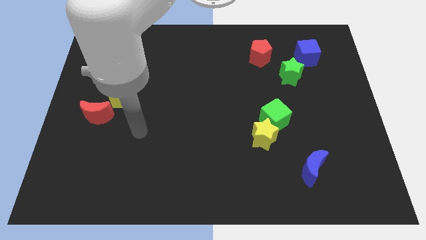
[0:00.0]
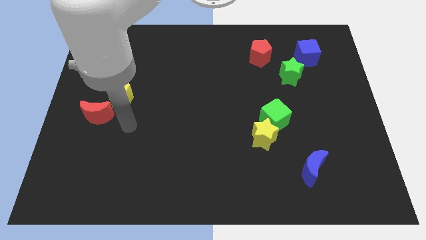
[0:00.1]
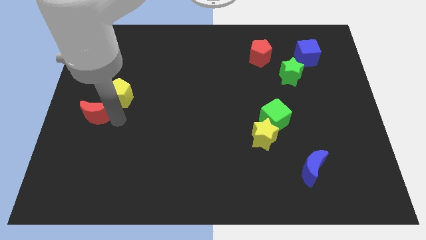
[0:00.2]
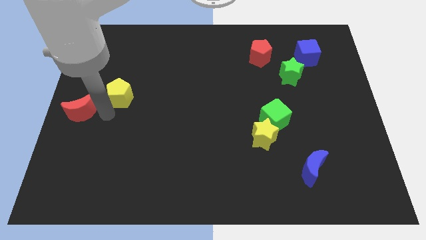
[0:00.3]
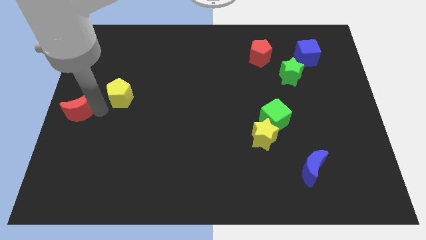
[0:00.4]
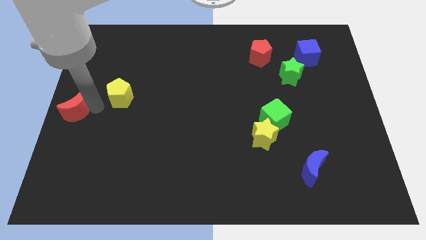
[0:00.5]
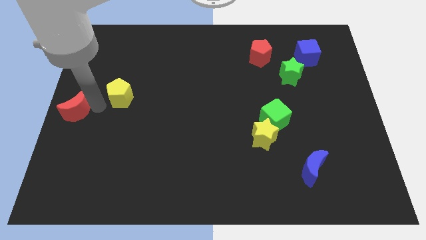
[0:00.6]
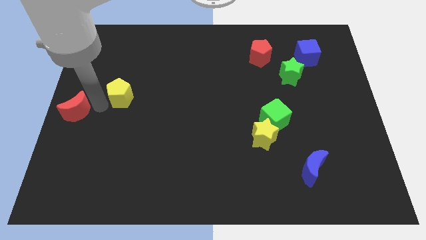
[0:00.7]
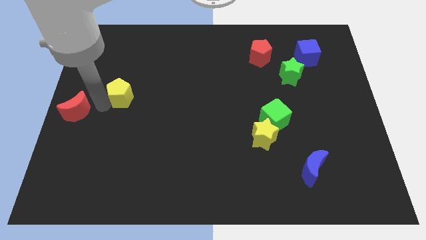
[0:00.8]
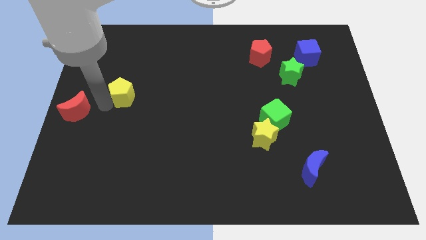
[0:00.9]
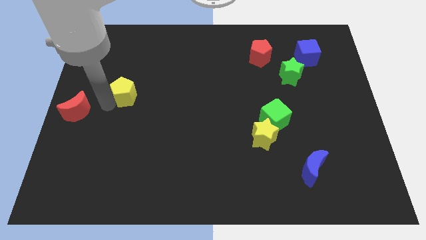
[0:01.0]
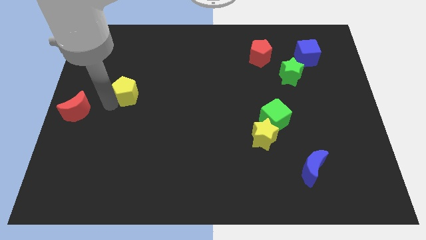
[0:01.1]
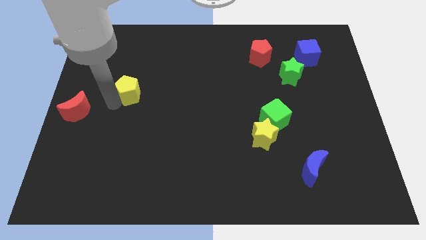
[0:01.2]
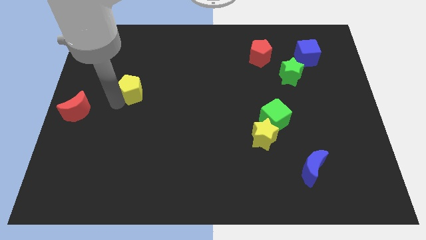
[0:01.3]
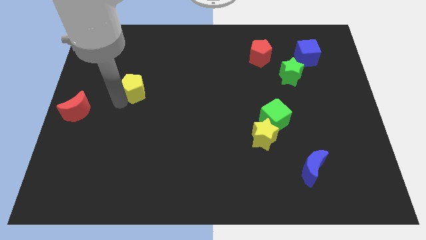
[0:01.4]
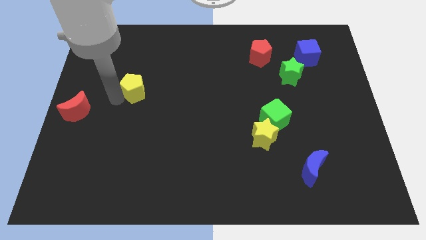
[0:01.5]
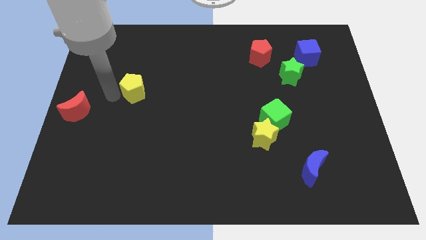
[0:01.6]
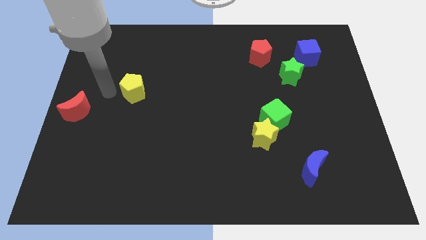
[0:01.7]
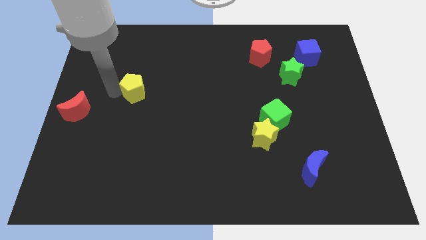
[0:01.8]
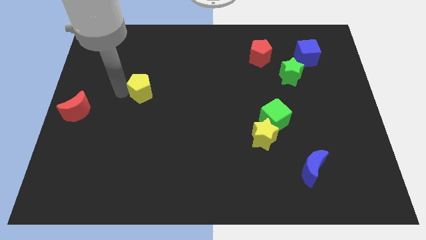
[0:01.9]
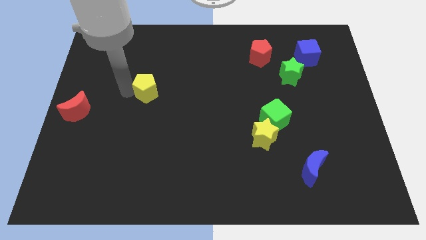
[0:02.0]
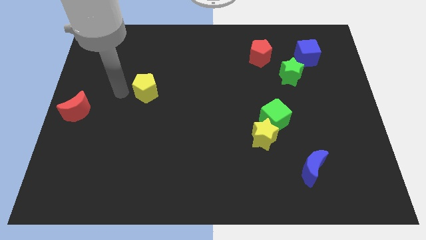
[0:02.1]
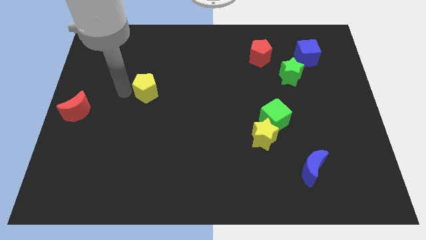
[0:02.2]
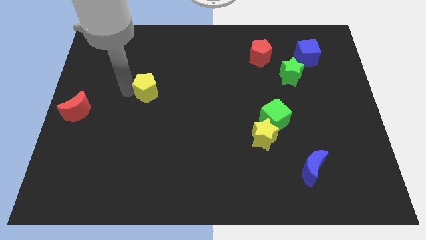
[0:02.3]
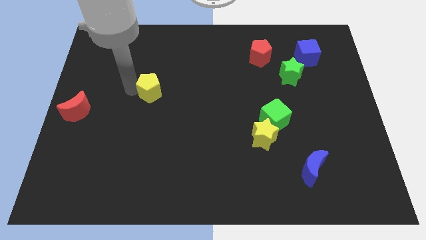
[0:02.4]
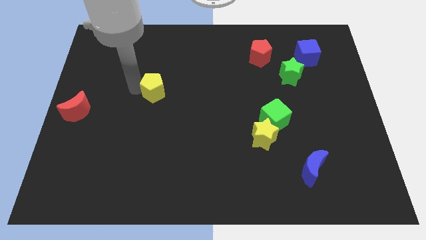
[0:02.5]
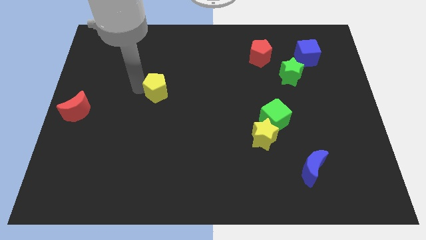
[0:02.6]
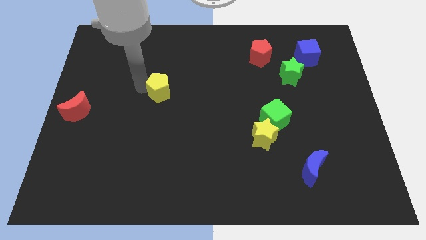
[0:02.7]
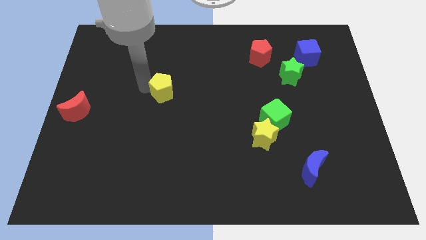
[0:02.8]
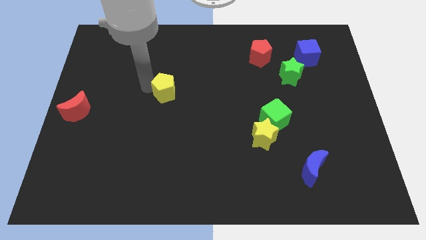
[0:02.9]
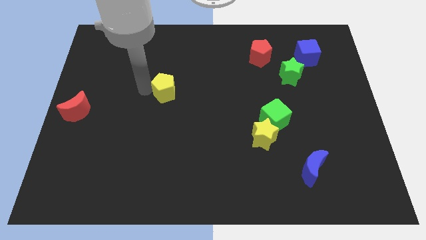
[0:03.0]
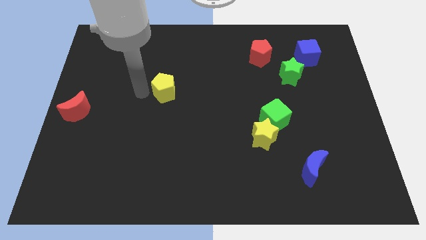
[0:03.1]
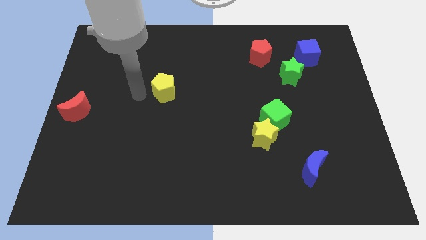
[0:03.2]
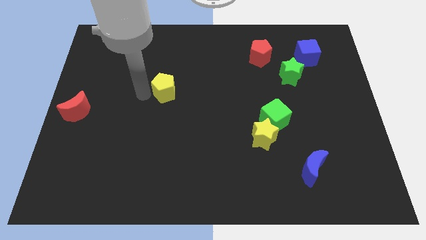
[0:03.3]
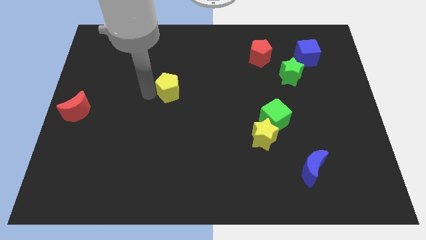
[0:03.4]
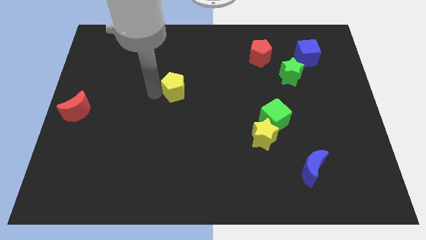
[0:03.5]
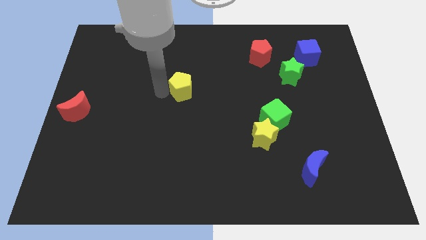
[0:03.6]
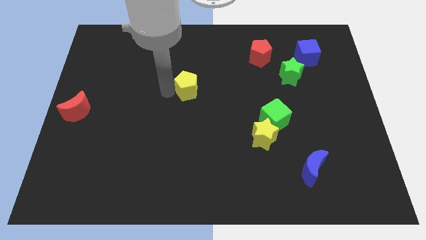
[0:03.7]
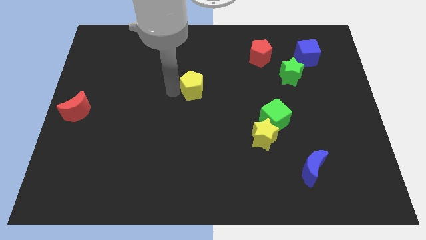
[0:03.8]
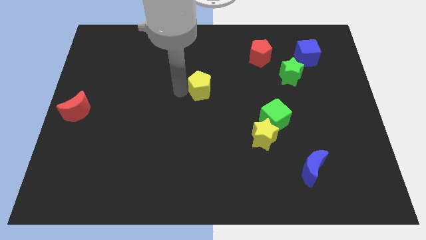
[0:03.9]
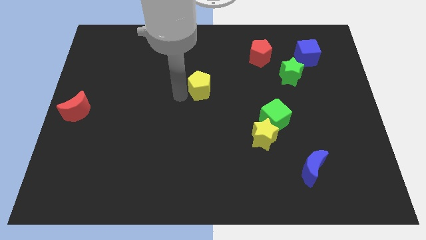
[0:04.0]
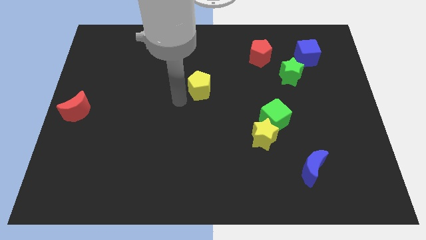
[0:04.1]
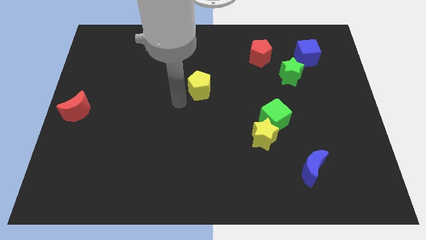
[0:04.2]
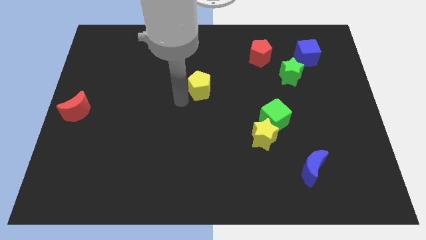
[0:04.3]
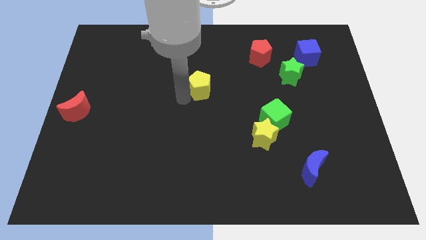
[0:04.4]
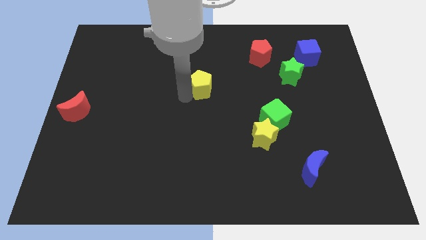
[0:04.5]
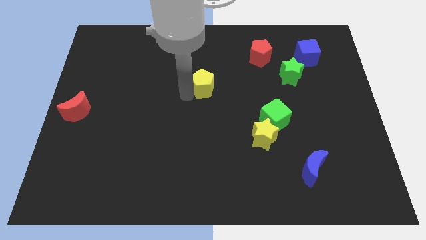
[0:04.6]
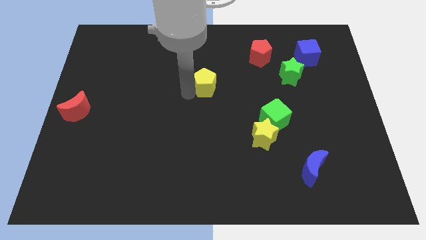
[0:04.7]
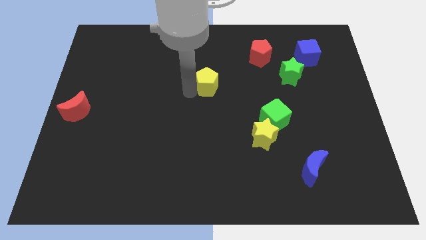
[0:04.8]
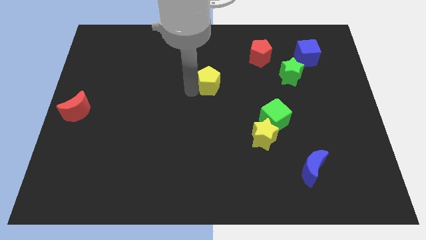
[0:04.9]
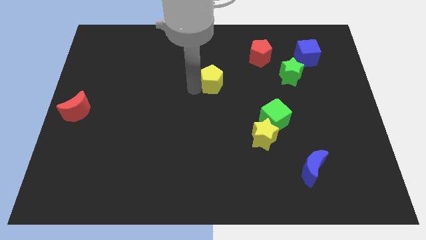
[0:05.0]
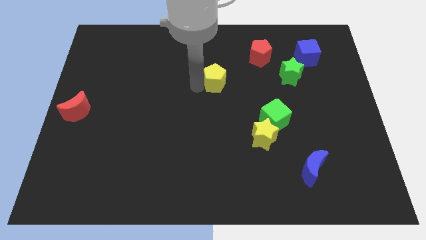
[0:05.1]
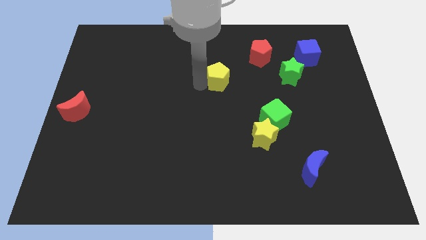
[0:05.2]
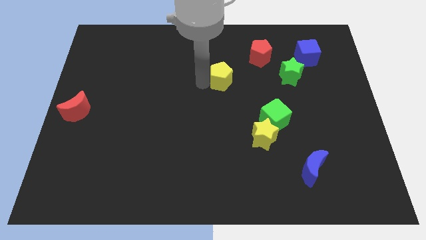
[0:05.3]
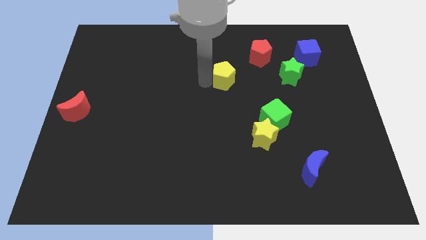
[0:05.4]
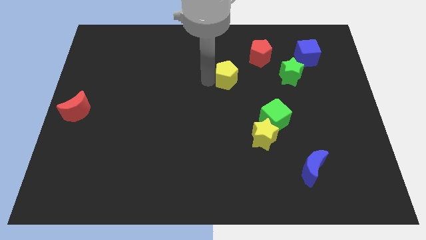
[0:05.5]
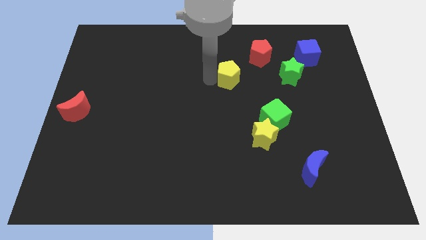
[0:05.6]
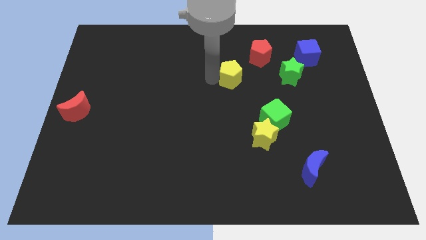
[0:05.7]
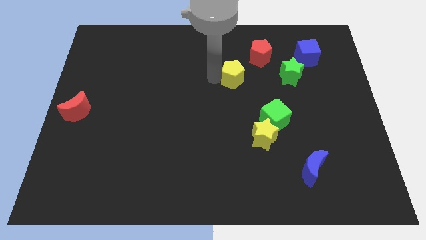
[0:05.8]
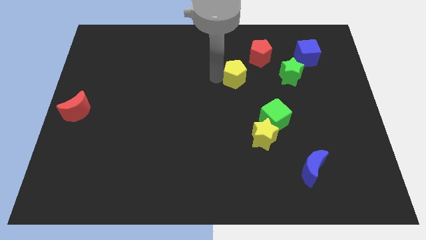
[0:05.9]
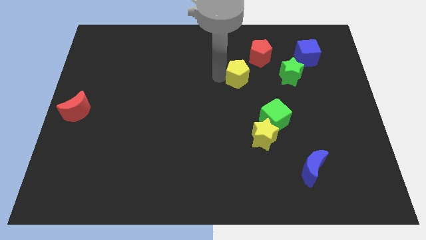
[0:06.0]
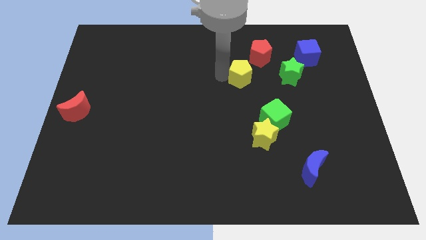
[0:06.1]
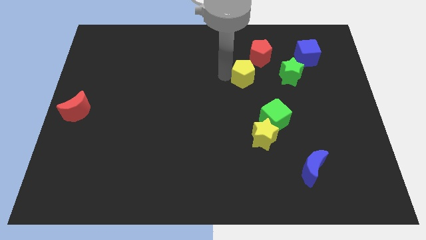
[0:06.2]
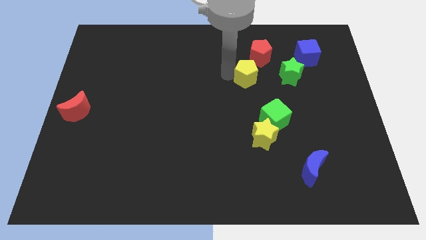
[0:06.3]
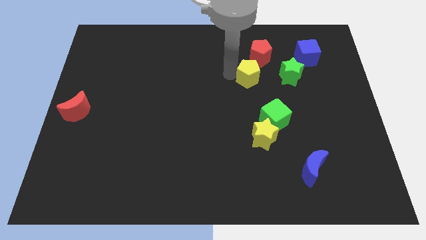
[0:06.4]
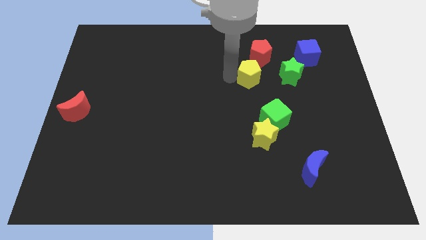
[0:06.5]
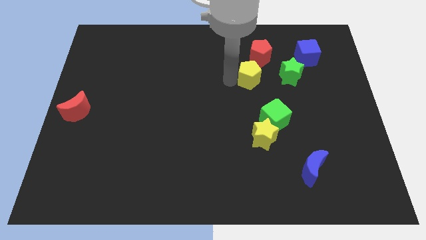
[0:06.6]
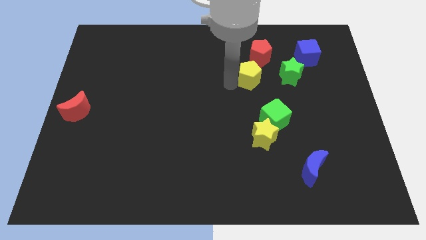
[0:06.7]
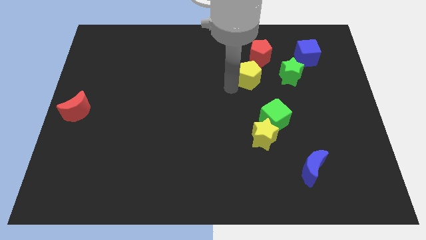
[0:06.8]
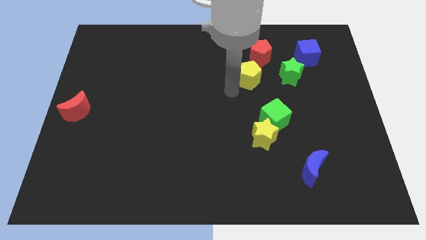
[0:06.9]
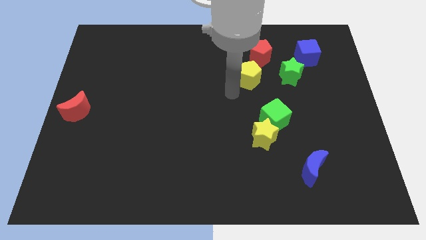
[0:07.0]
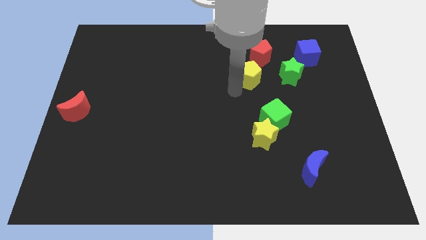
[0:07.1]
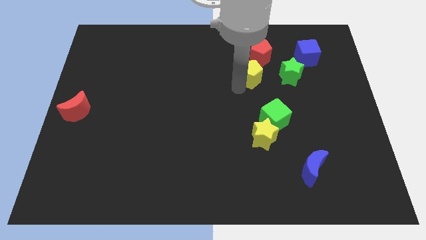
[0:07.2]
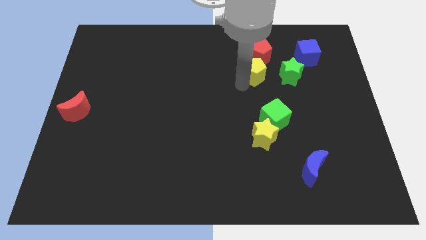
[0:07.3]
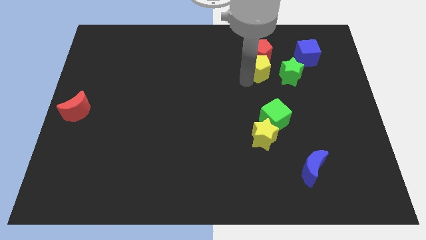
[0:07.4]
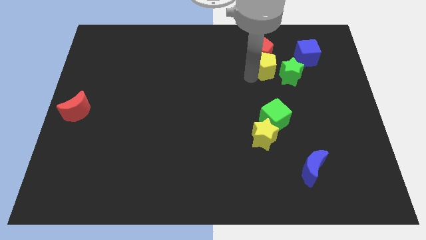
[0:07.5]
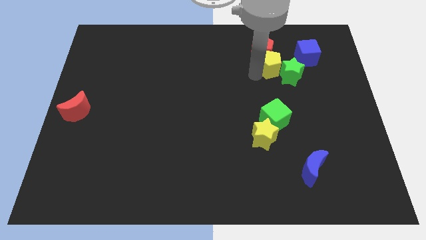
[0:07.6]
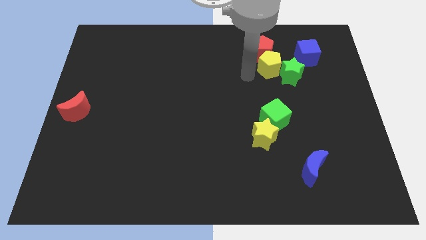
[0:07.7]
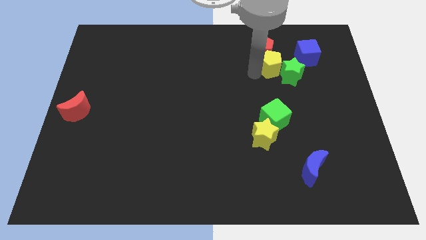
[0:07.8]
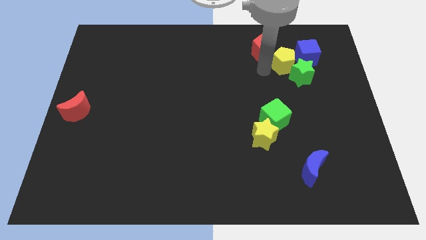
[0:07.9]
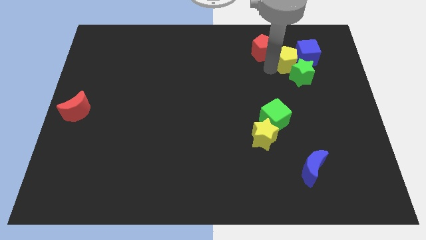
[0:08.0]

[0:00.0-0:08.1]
put the yellow pentagon towards the blue cube
